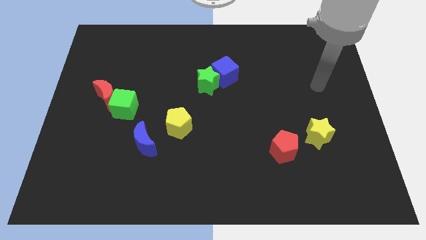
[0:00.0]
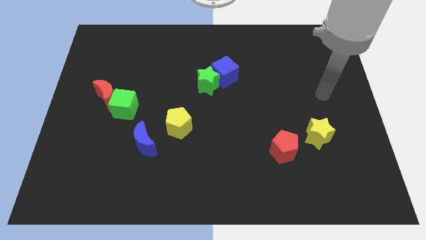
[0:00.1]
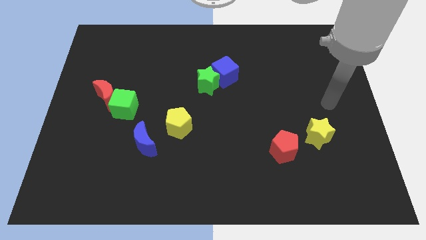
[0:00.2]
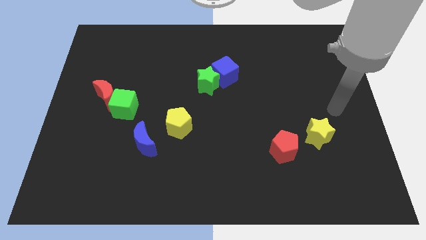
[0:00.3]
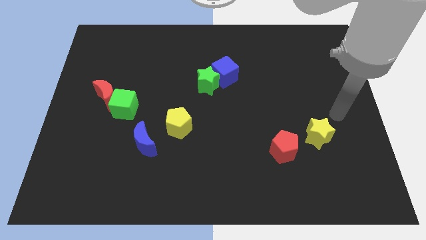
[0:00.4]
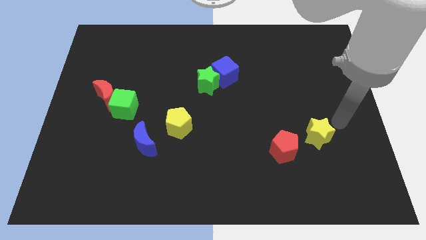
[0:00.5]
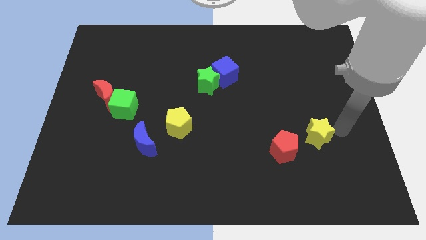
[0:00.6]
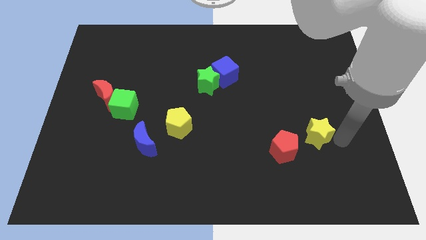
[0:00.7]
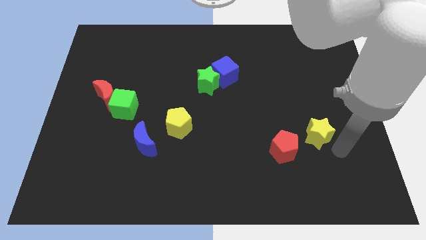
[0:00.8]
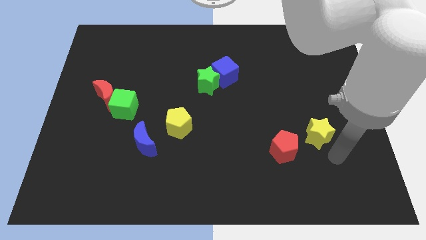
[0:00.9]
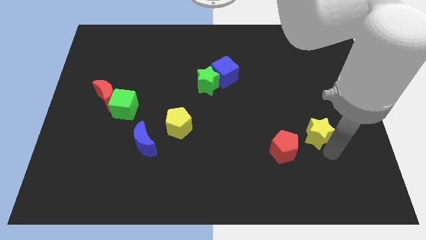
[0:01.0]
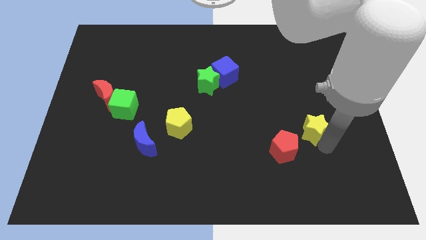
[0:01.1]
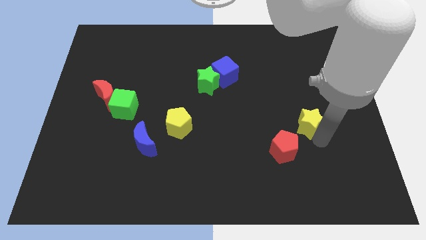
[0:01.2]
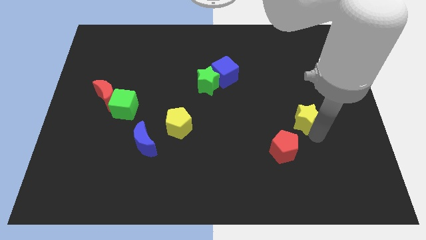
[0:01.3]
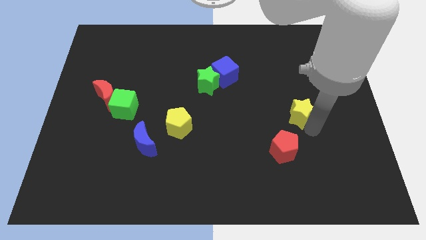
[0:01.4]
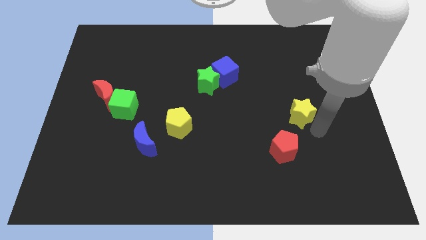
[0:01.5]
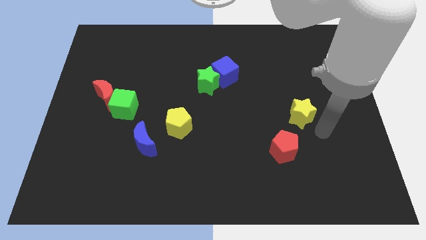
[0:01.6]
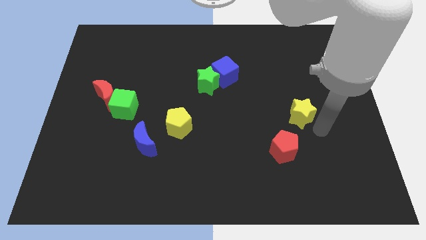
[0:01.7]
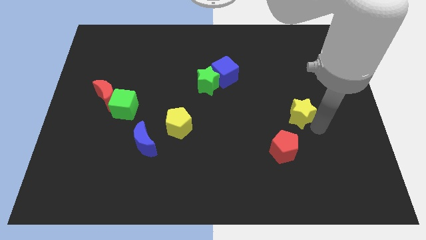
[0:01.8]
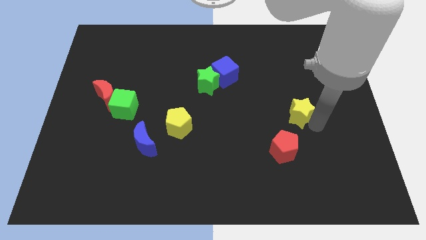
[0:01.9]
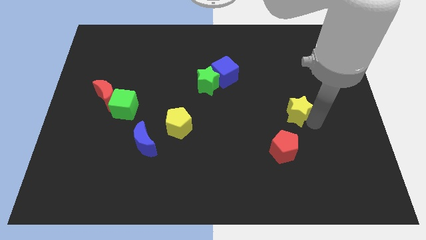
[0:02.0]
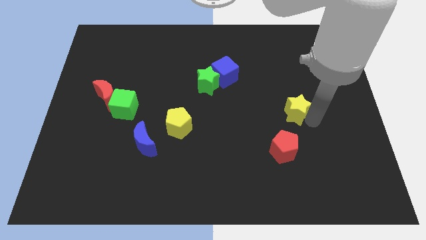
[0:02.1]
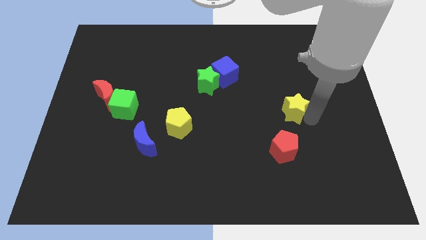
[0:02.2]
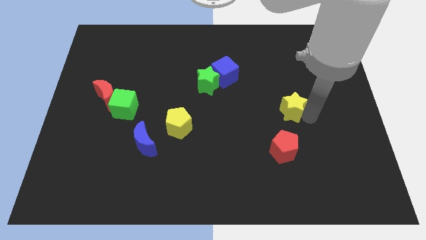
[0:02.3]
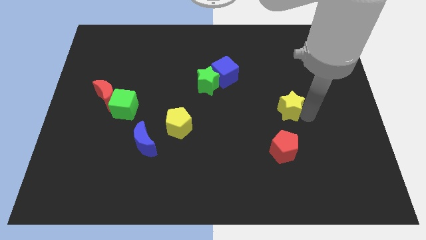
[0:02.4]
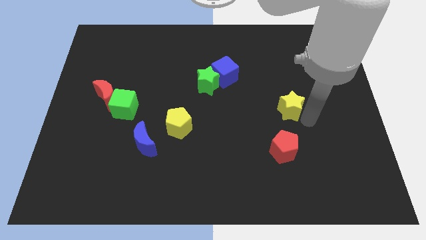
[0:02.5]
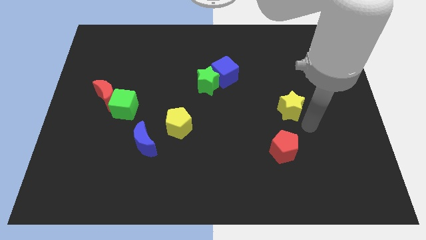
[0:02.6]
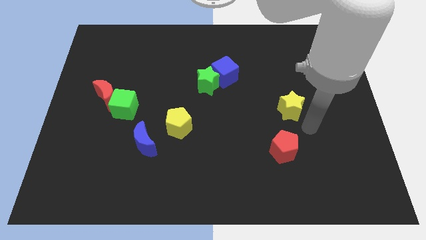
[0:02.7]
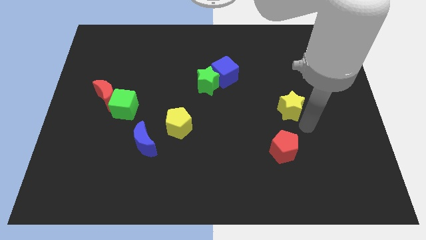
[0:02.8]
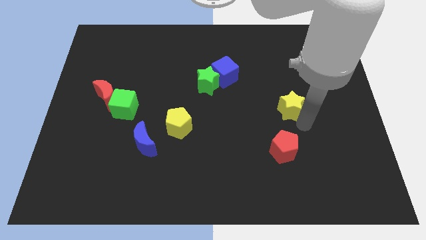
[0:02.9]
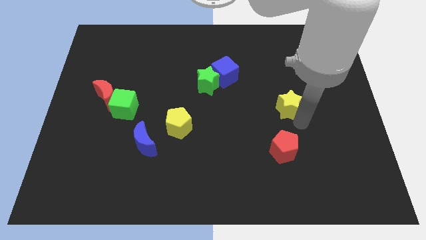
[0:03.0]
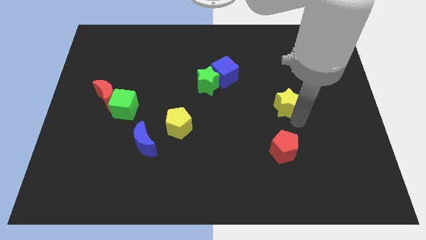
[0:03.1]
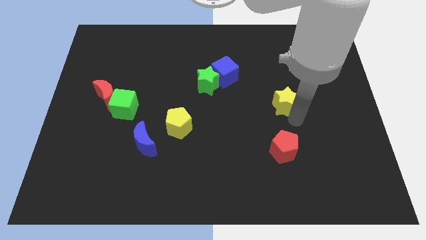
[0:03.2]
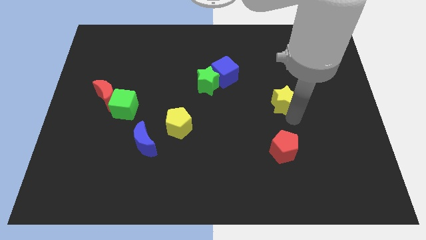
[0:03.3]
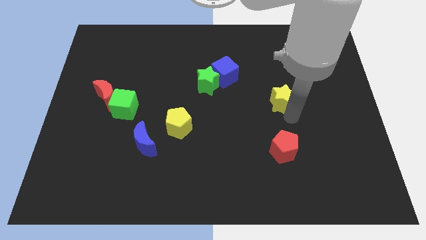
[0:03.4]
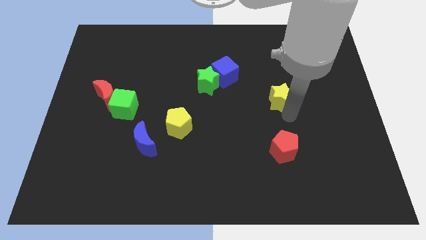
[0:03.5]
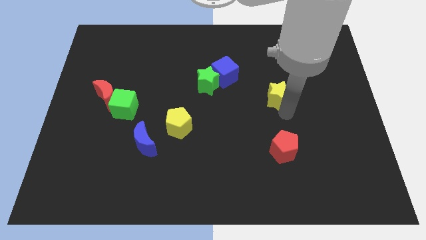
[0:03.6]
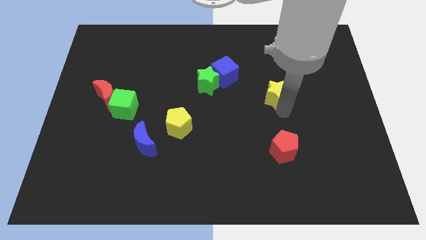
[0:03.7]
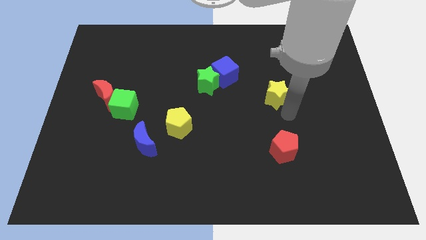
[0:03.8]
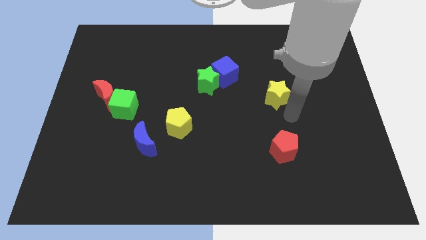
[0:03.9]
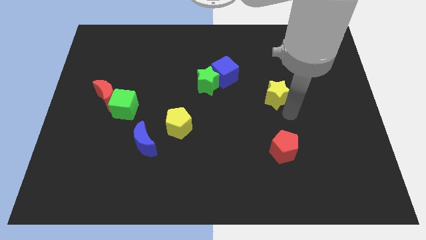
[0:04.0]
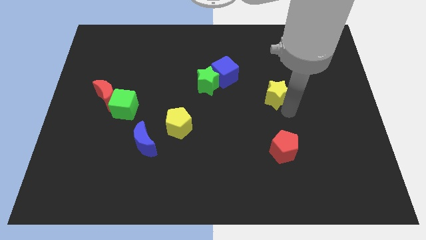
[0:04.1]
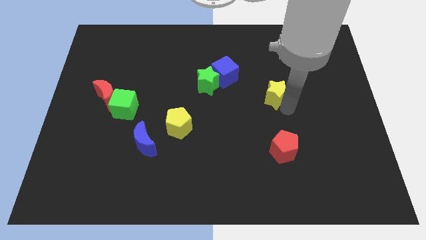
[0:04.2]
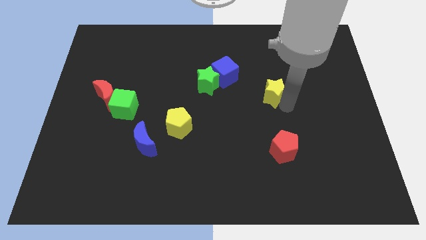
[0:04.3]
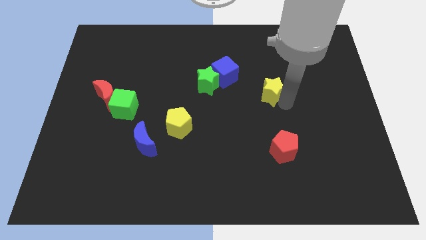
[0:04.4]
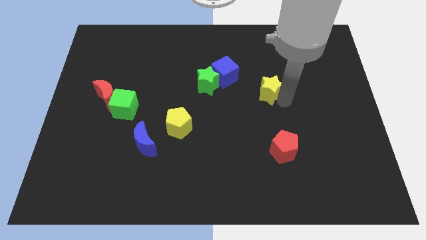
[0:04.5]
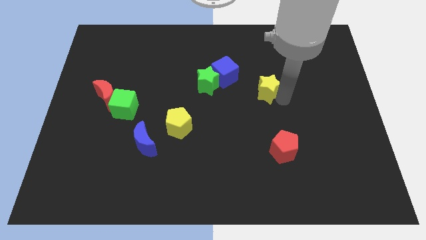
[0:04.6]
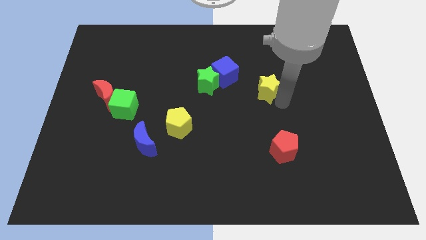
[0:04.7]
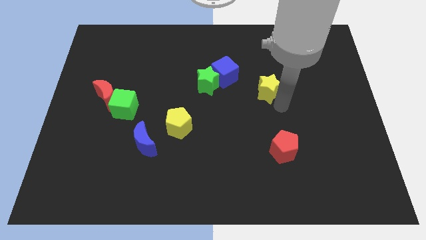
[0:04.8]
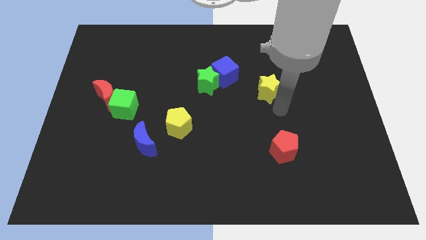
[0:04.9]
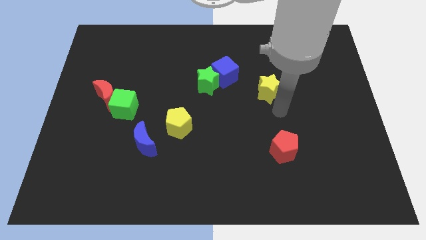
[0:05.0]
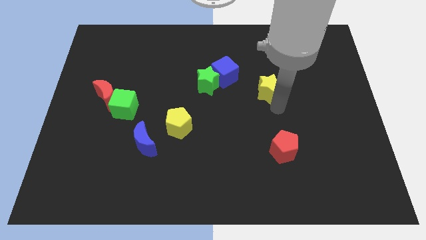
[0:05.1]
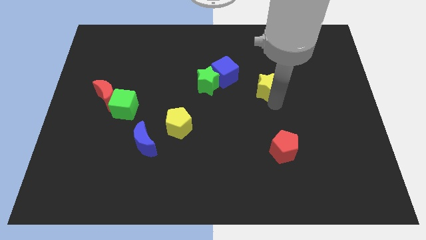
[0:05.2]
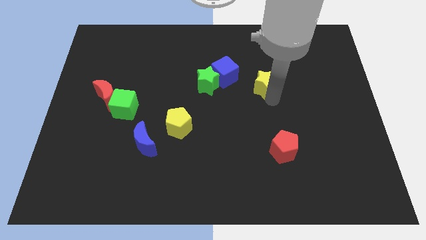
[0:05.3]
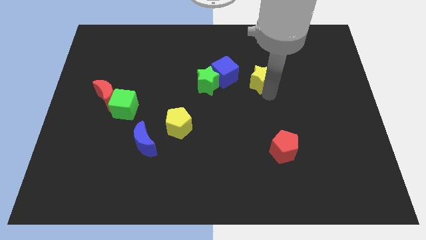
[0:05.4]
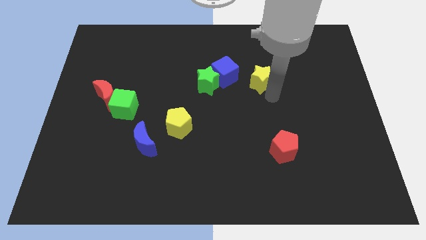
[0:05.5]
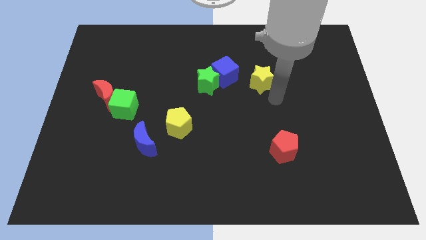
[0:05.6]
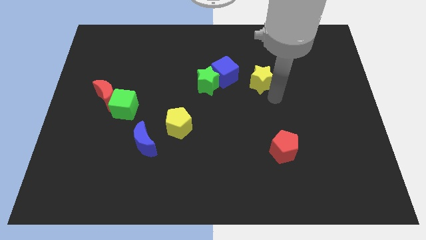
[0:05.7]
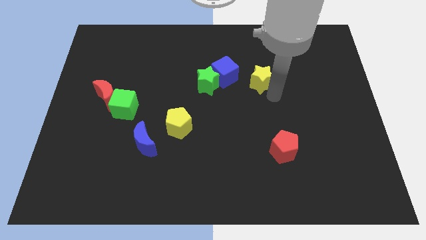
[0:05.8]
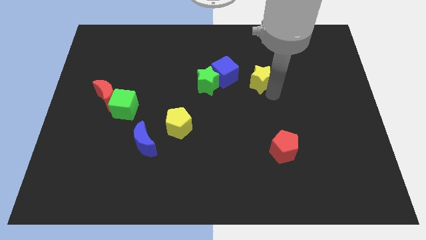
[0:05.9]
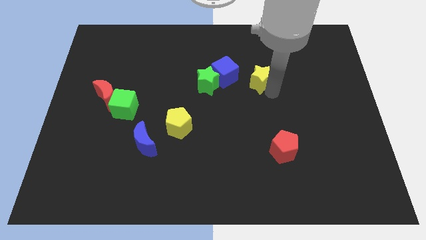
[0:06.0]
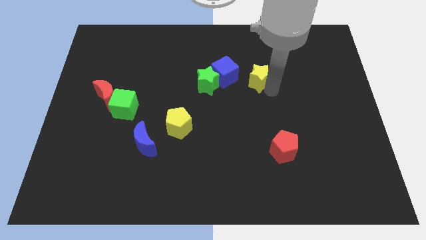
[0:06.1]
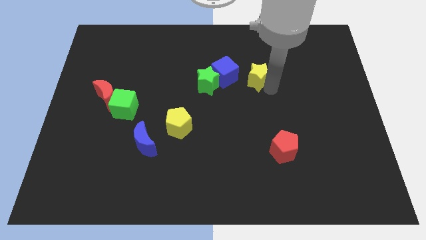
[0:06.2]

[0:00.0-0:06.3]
slide the yellow star upwards and left diagonally

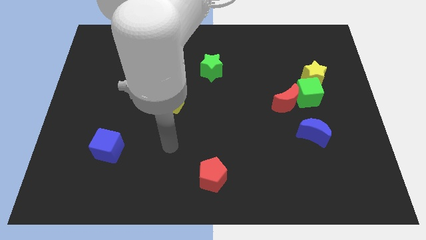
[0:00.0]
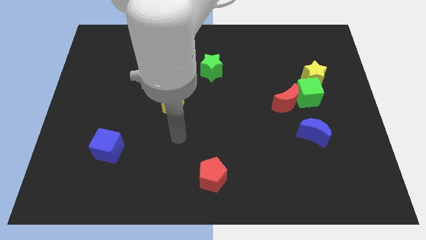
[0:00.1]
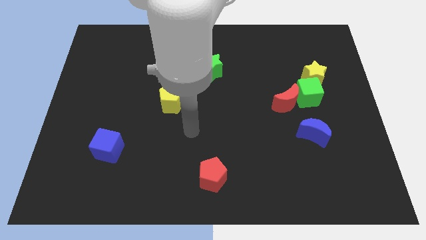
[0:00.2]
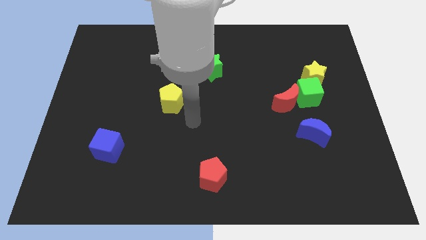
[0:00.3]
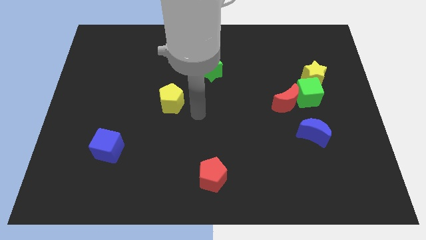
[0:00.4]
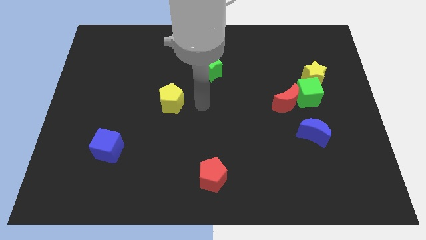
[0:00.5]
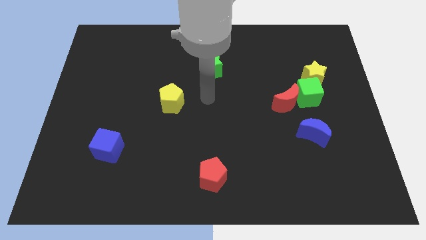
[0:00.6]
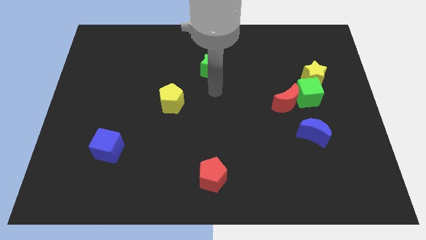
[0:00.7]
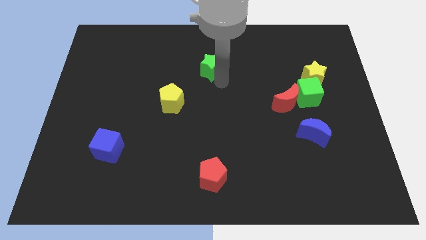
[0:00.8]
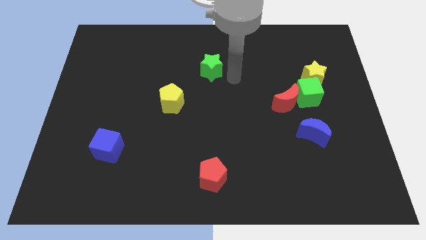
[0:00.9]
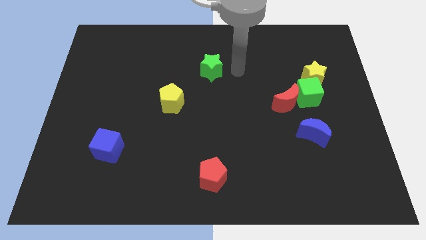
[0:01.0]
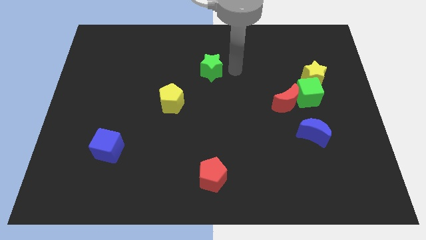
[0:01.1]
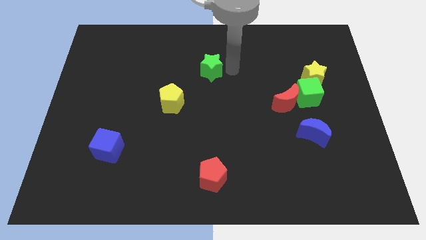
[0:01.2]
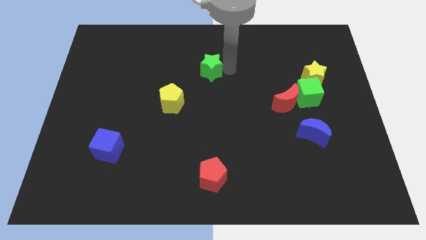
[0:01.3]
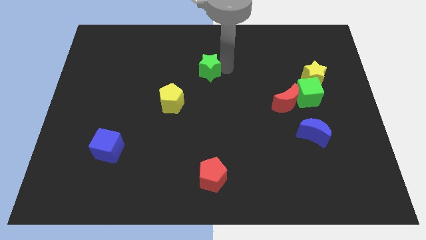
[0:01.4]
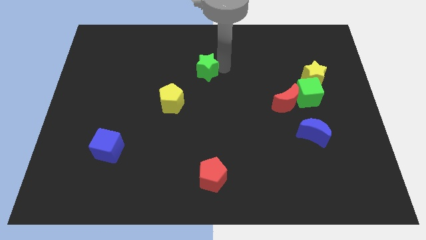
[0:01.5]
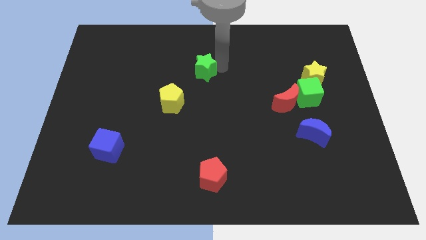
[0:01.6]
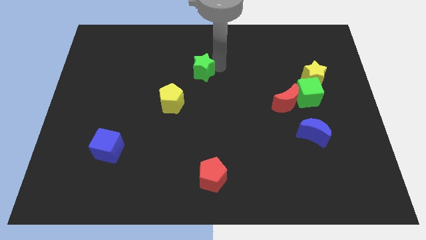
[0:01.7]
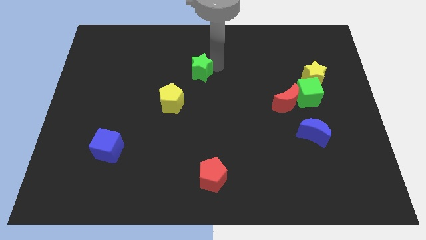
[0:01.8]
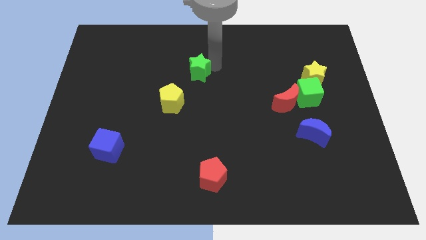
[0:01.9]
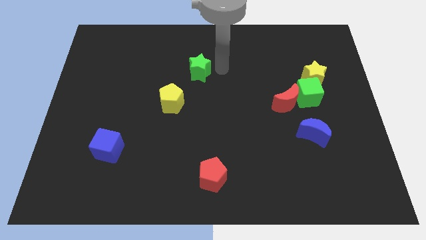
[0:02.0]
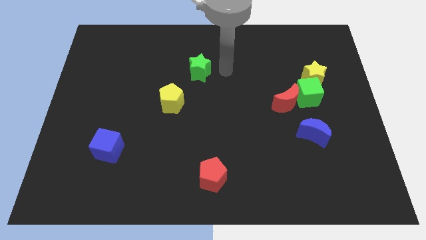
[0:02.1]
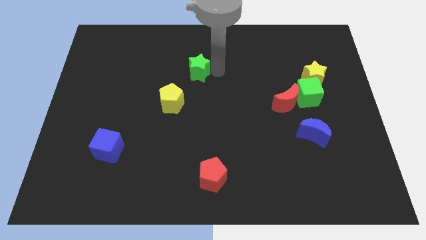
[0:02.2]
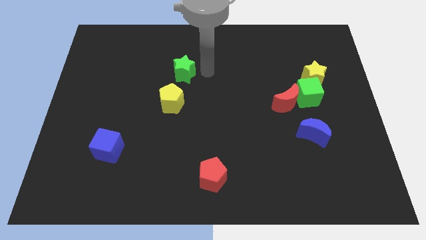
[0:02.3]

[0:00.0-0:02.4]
slightly push the green star left
